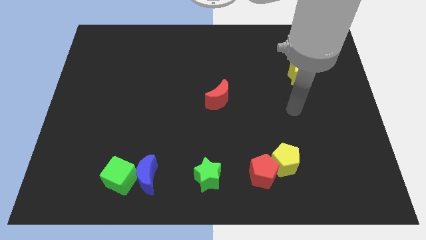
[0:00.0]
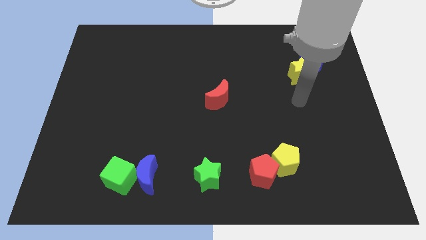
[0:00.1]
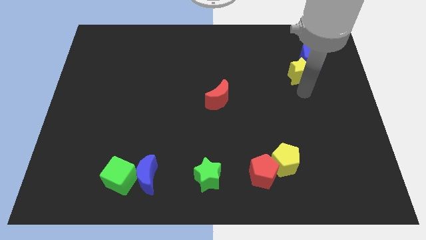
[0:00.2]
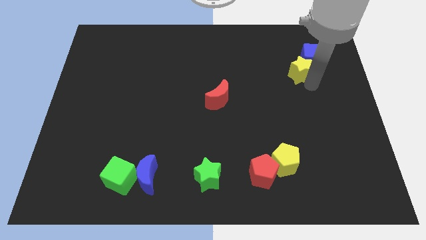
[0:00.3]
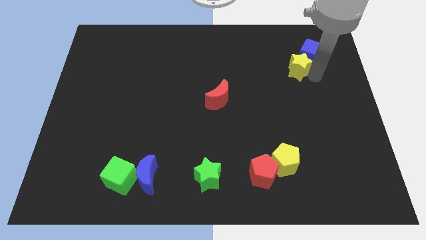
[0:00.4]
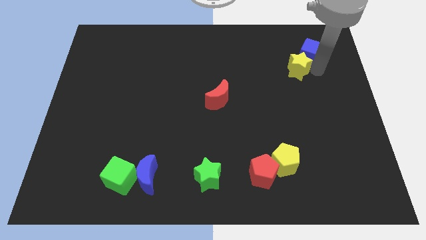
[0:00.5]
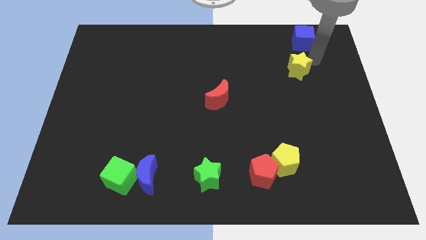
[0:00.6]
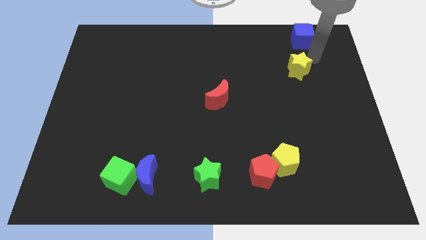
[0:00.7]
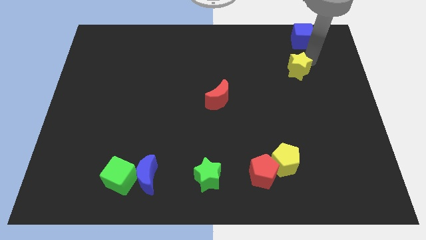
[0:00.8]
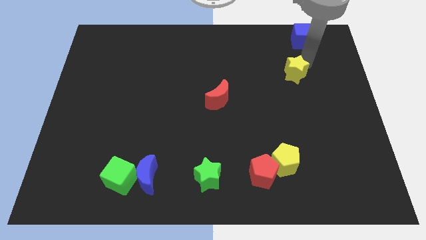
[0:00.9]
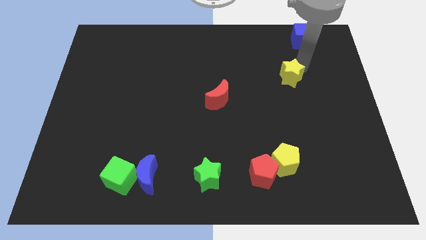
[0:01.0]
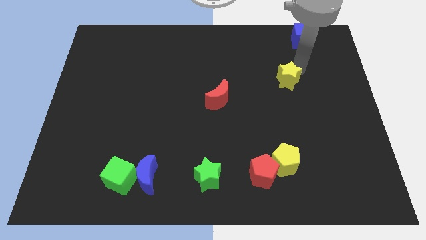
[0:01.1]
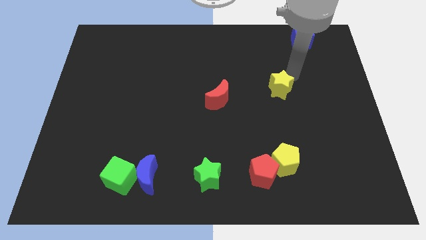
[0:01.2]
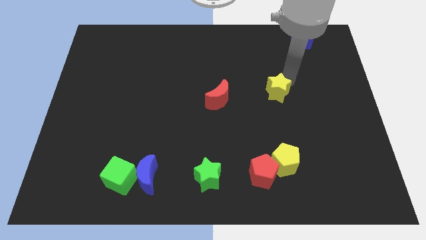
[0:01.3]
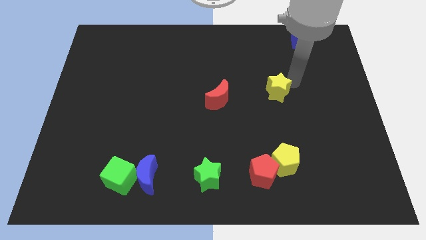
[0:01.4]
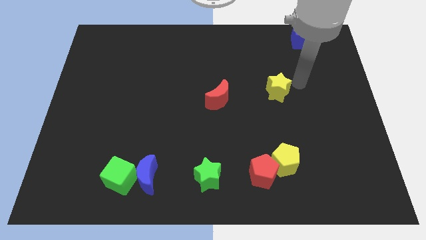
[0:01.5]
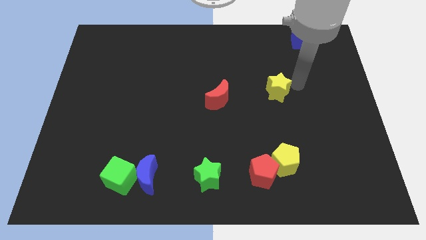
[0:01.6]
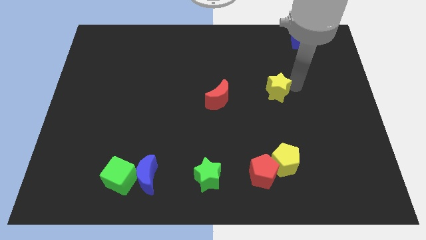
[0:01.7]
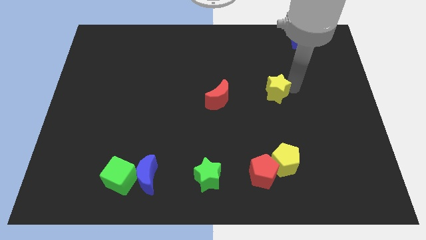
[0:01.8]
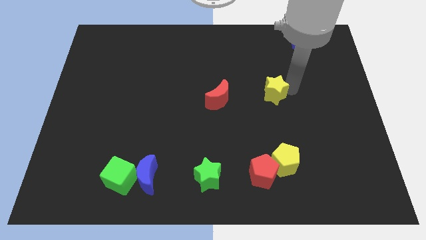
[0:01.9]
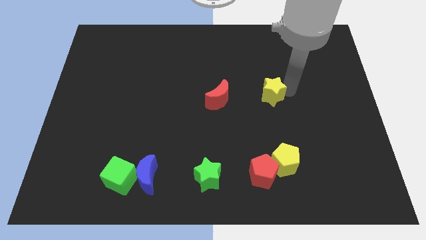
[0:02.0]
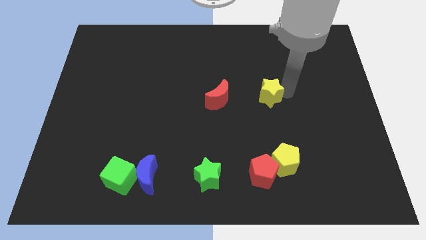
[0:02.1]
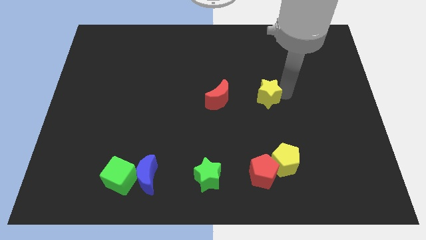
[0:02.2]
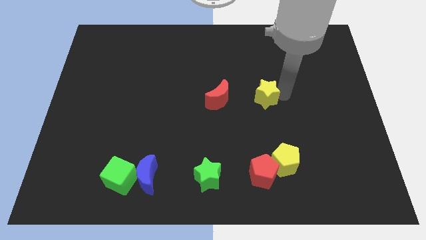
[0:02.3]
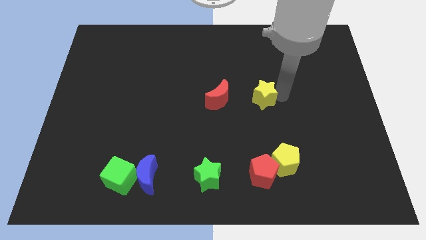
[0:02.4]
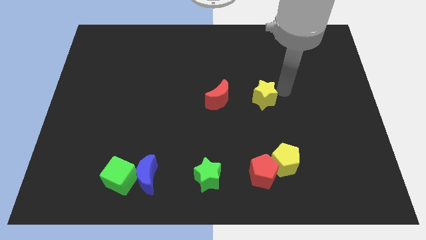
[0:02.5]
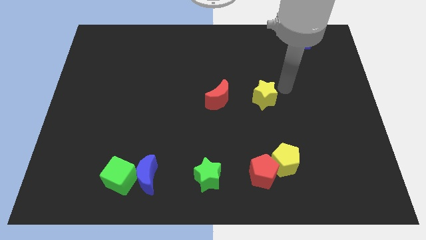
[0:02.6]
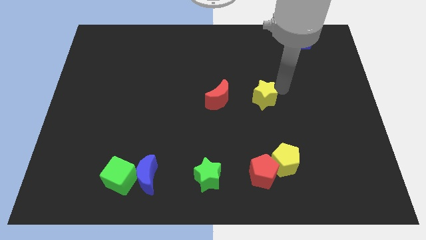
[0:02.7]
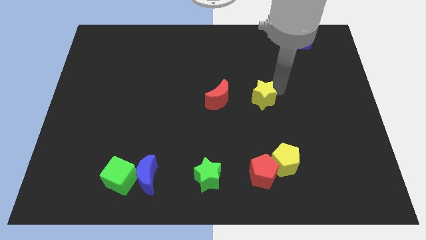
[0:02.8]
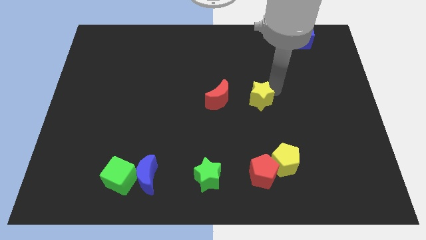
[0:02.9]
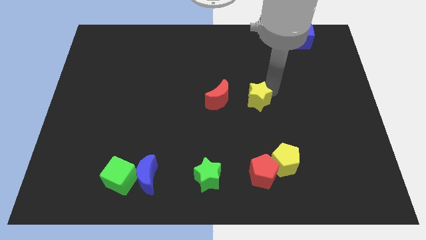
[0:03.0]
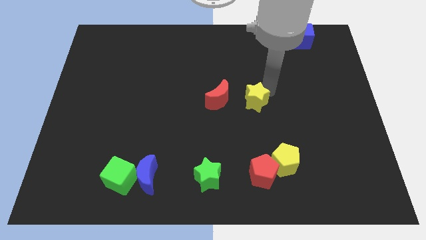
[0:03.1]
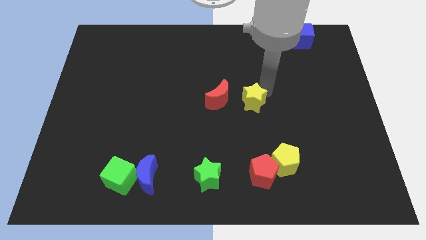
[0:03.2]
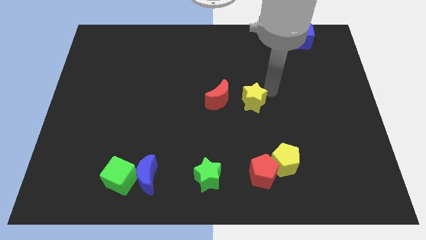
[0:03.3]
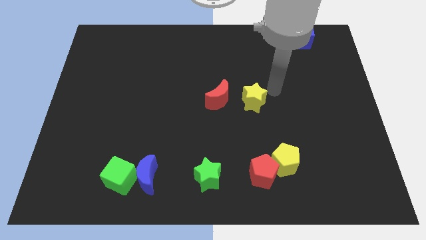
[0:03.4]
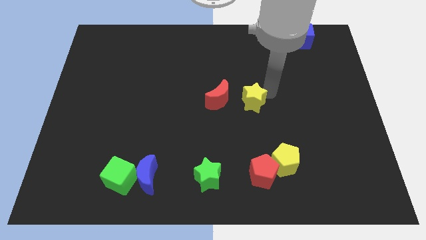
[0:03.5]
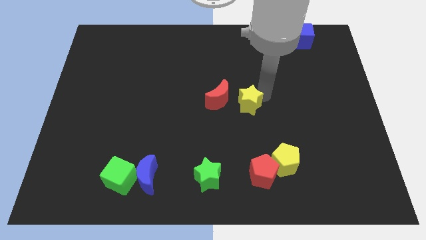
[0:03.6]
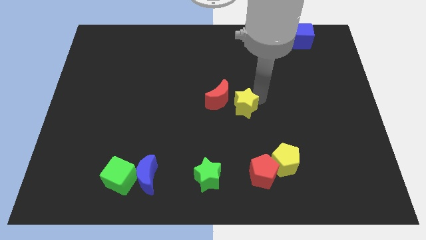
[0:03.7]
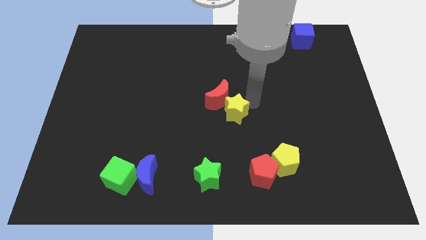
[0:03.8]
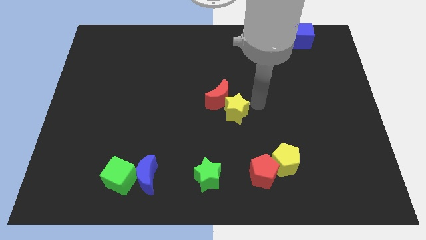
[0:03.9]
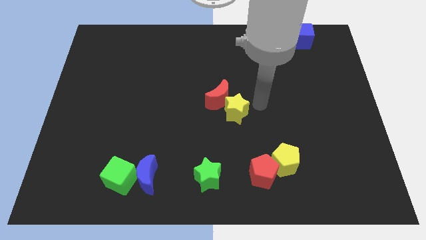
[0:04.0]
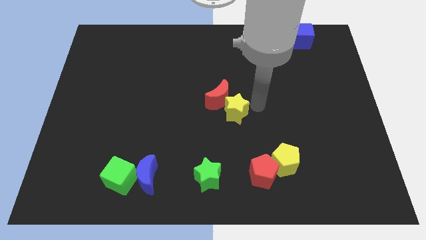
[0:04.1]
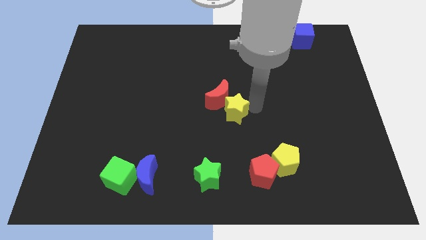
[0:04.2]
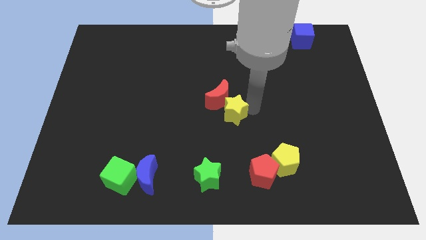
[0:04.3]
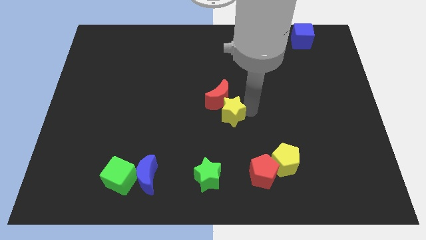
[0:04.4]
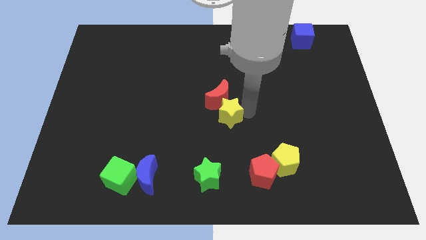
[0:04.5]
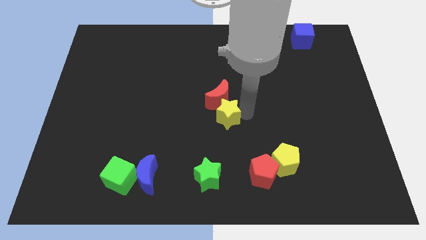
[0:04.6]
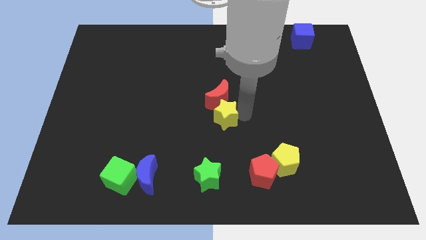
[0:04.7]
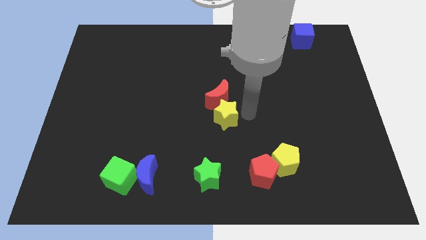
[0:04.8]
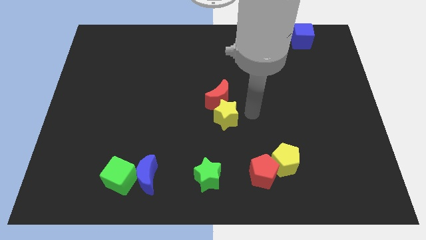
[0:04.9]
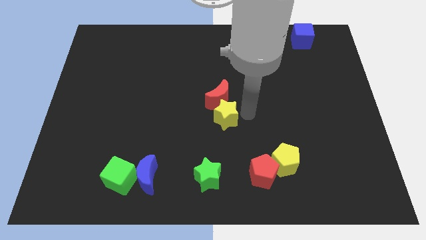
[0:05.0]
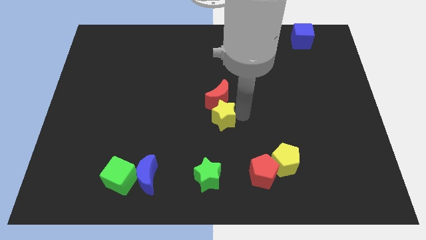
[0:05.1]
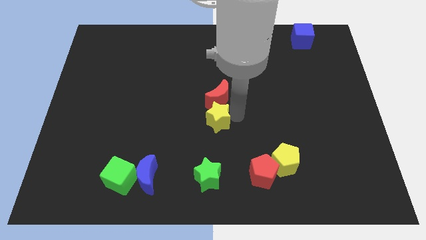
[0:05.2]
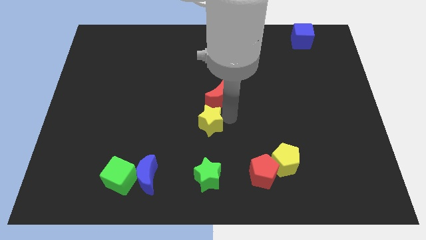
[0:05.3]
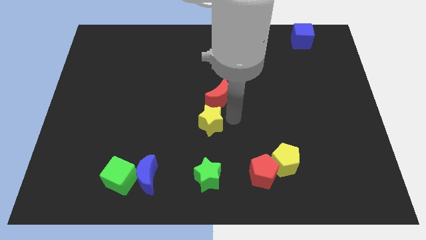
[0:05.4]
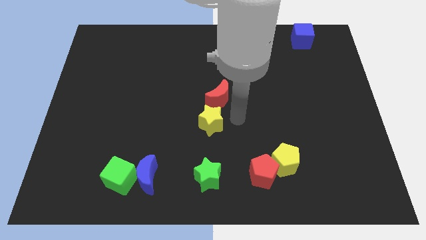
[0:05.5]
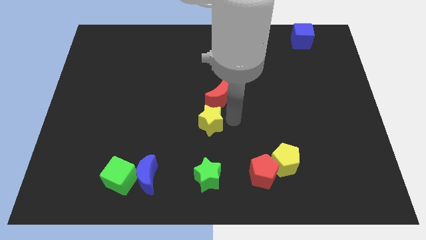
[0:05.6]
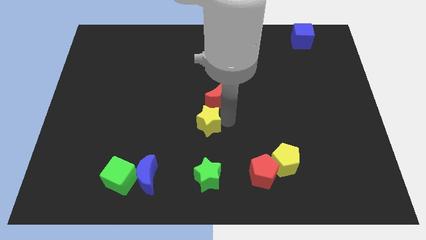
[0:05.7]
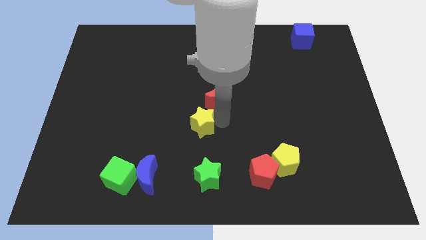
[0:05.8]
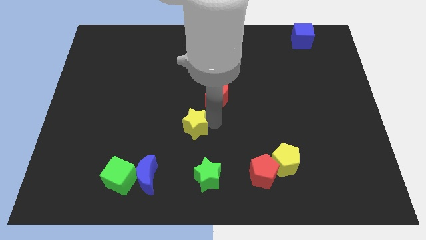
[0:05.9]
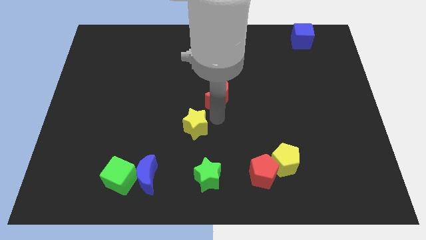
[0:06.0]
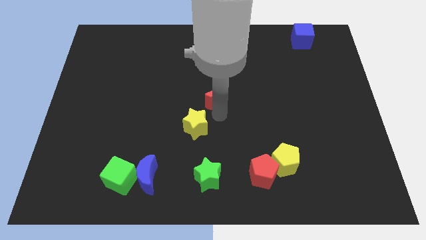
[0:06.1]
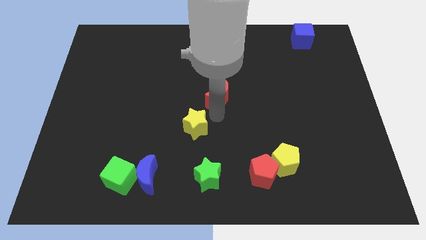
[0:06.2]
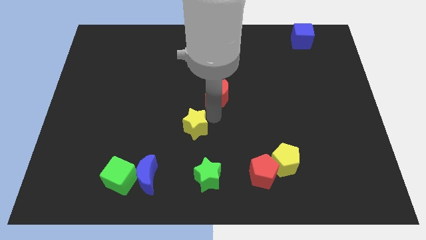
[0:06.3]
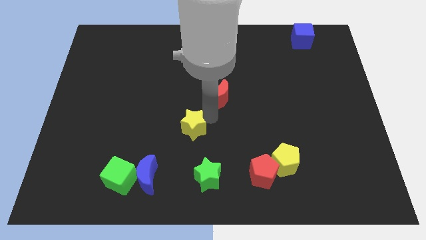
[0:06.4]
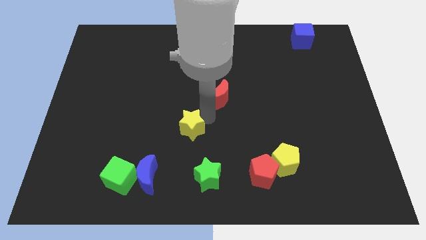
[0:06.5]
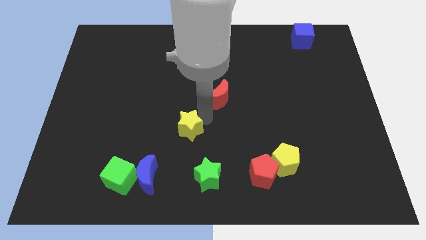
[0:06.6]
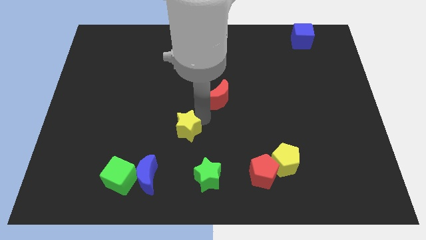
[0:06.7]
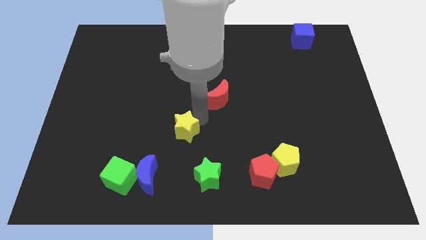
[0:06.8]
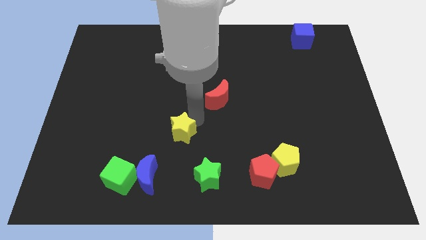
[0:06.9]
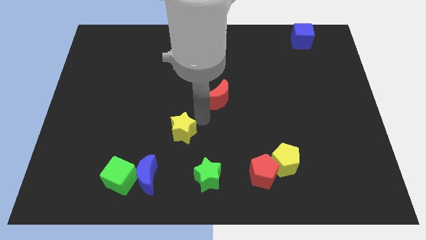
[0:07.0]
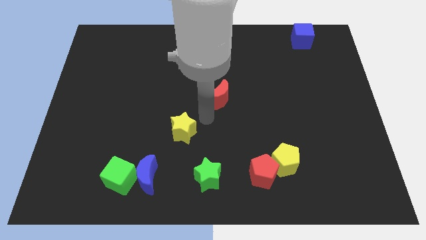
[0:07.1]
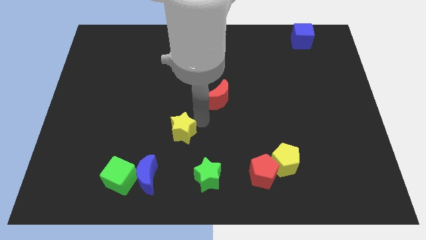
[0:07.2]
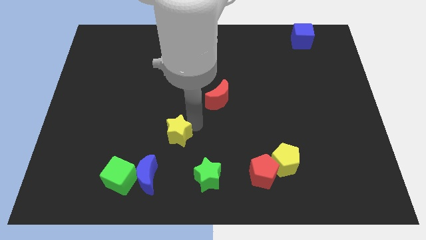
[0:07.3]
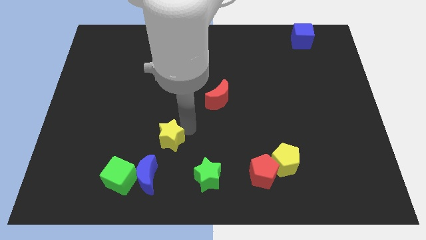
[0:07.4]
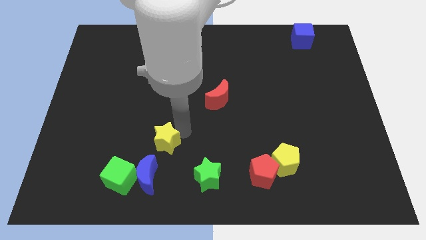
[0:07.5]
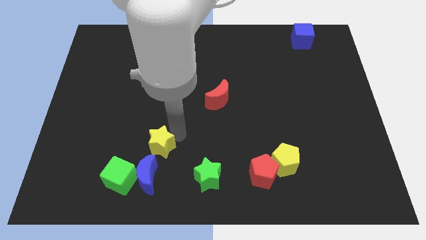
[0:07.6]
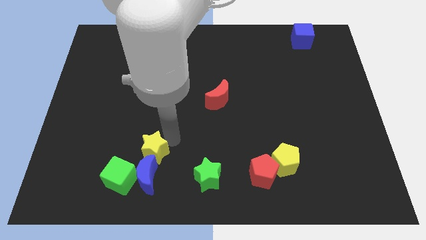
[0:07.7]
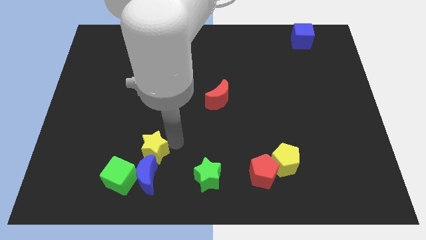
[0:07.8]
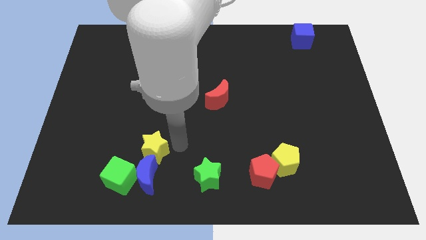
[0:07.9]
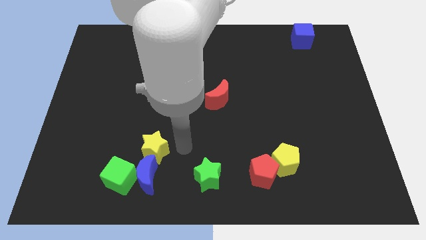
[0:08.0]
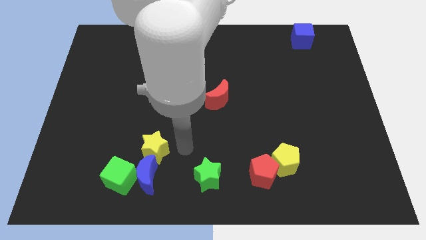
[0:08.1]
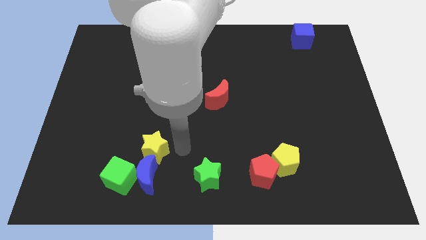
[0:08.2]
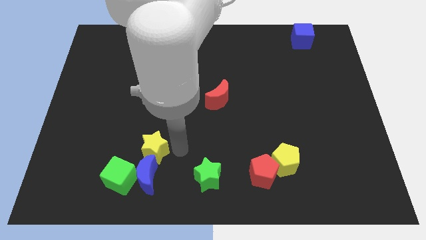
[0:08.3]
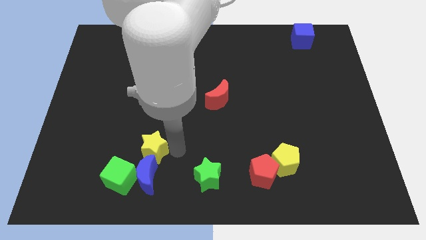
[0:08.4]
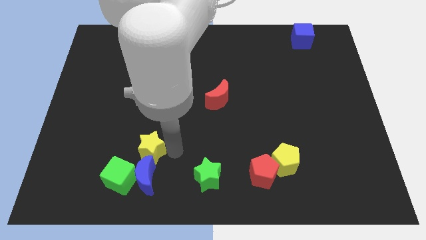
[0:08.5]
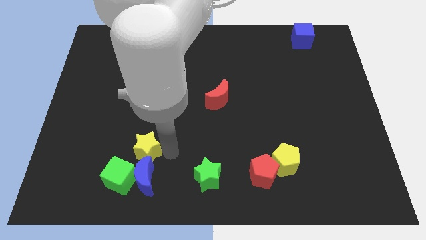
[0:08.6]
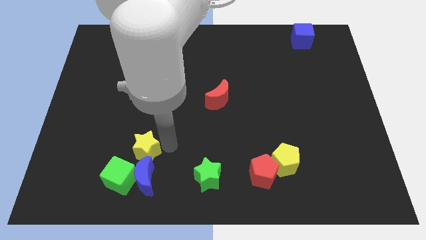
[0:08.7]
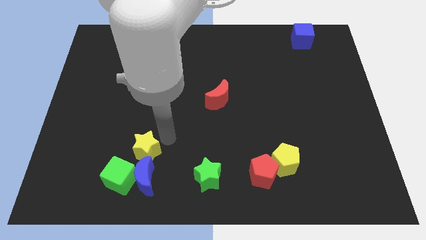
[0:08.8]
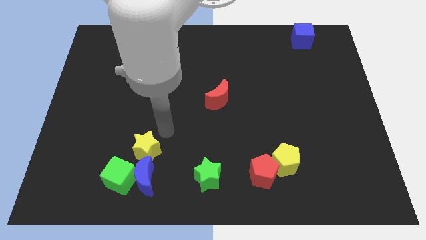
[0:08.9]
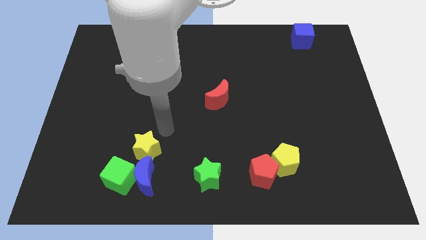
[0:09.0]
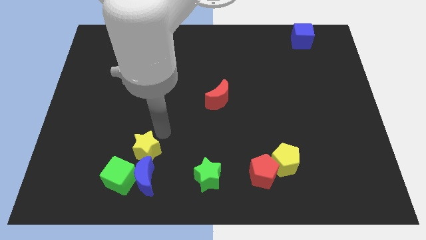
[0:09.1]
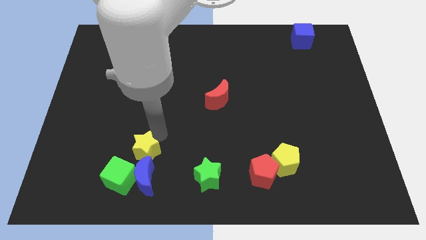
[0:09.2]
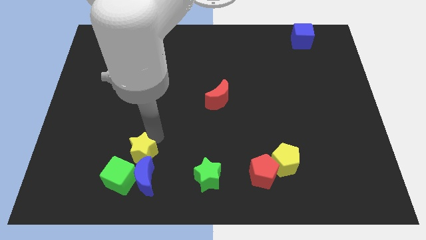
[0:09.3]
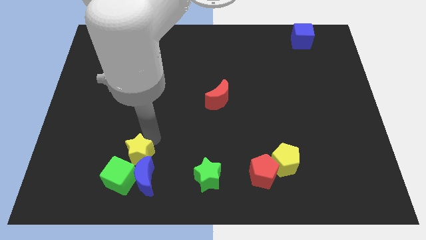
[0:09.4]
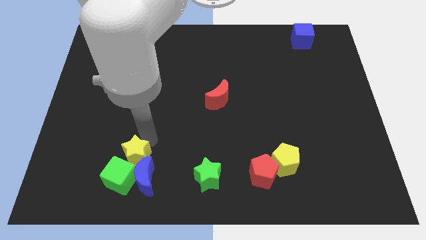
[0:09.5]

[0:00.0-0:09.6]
move the yellow star to the green cube
